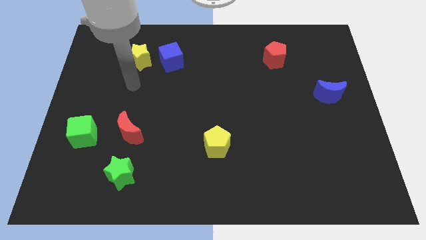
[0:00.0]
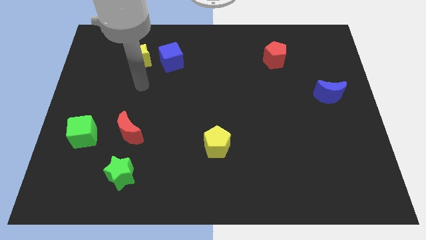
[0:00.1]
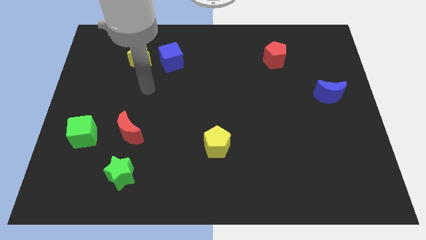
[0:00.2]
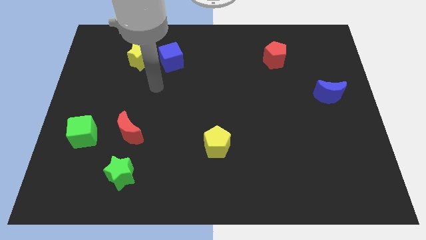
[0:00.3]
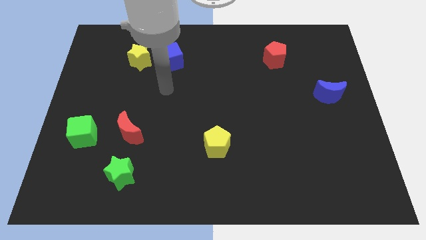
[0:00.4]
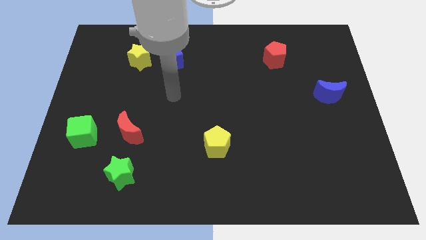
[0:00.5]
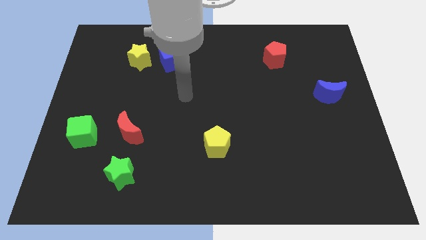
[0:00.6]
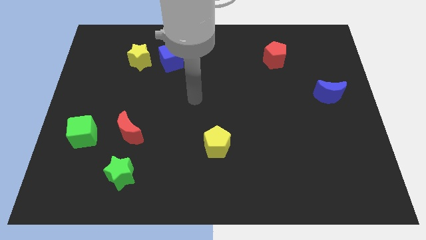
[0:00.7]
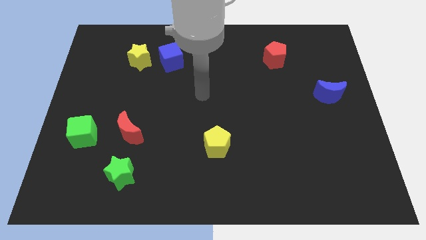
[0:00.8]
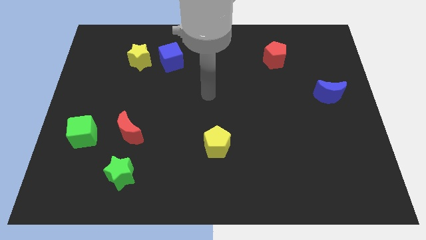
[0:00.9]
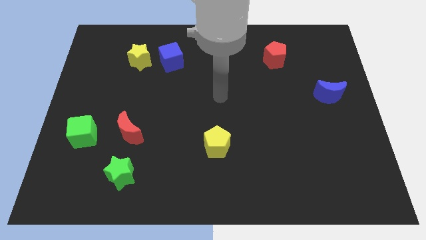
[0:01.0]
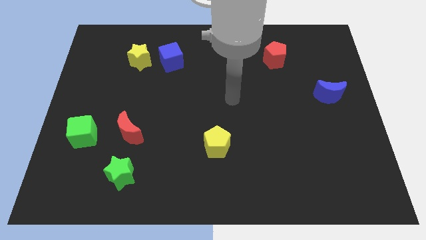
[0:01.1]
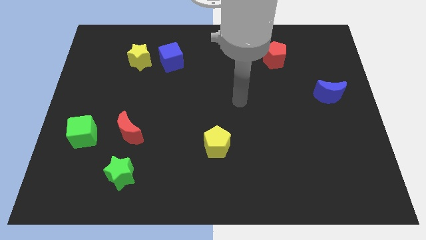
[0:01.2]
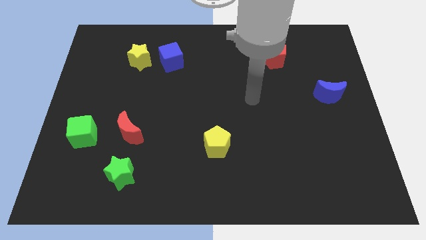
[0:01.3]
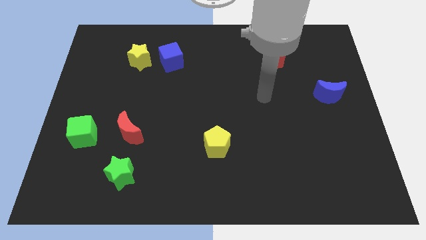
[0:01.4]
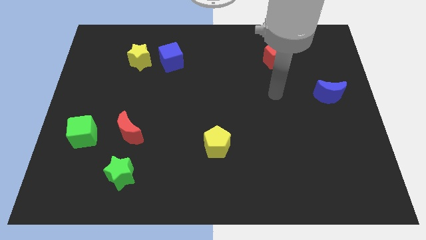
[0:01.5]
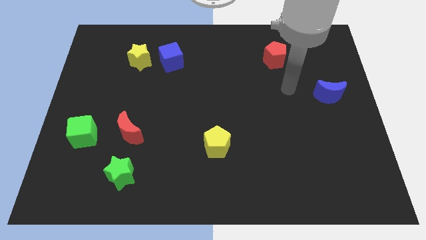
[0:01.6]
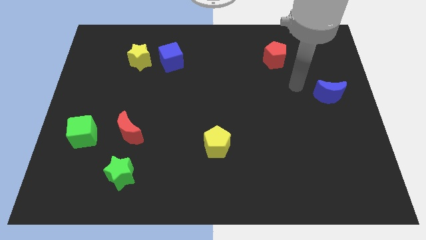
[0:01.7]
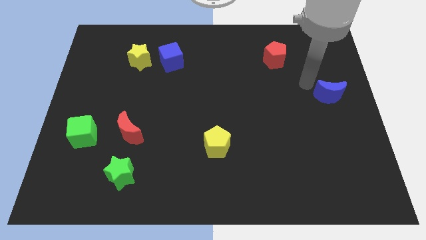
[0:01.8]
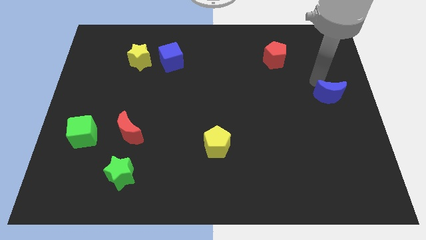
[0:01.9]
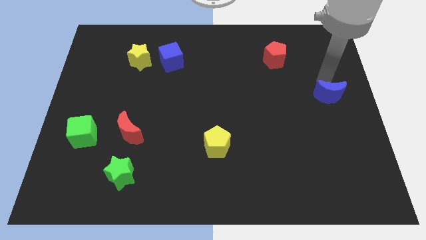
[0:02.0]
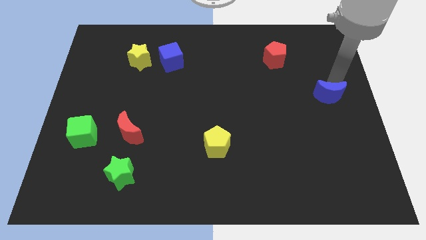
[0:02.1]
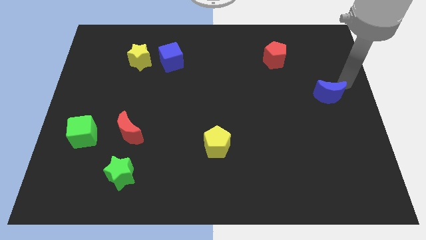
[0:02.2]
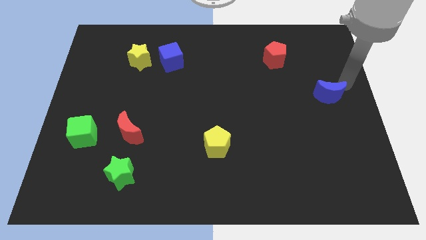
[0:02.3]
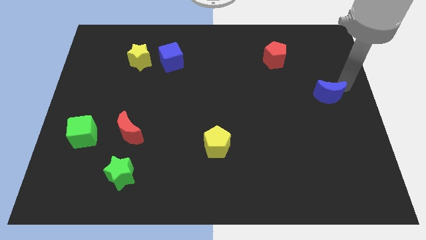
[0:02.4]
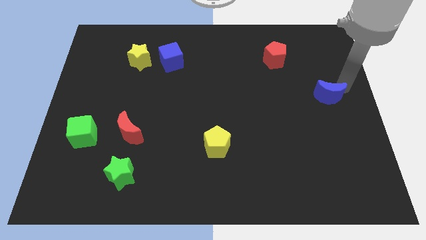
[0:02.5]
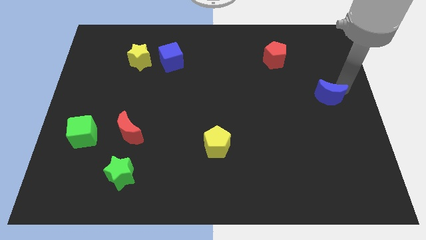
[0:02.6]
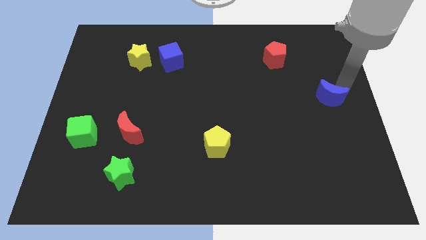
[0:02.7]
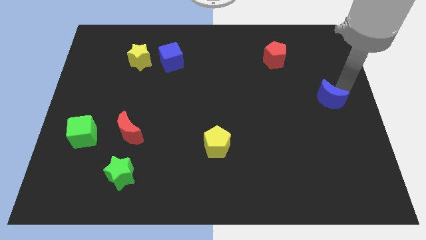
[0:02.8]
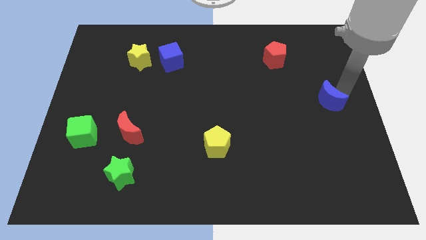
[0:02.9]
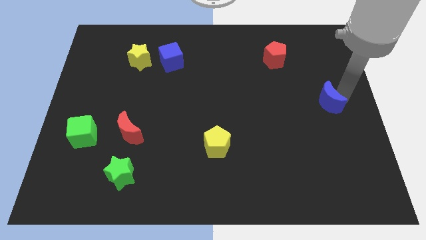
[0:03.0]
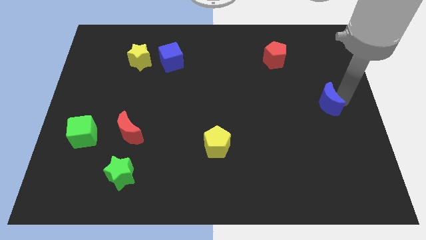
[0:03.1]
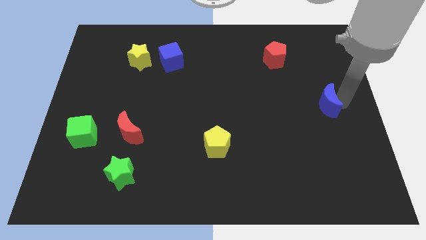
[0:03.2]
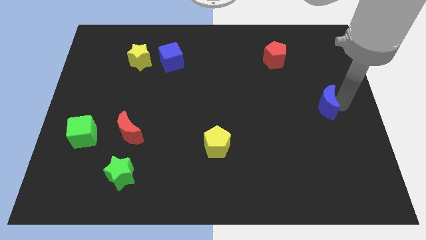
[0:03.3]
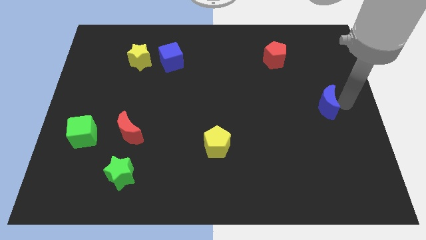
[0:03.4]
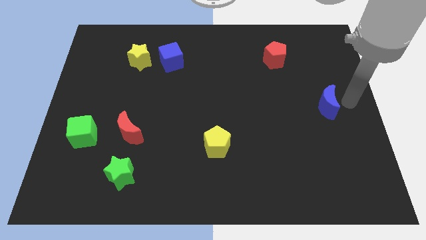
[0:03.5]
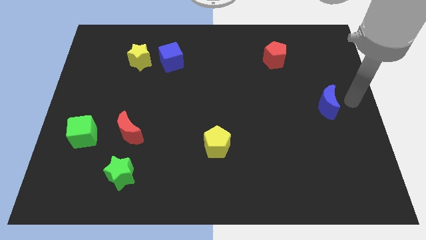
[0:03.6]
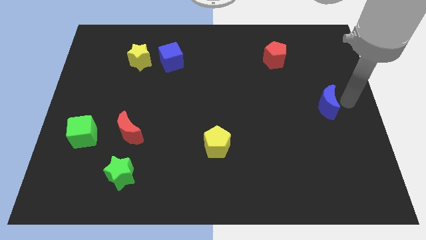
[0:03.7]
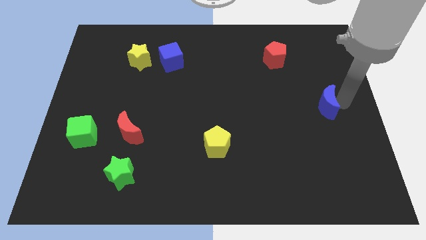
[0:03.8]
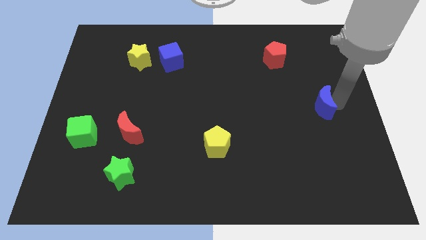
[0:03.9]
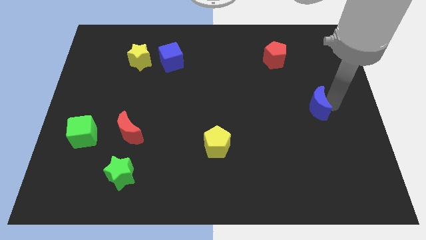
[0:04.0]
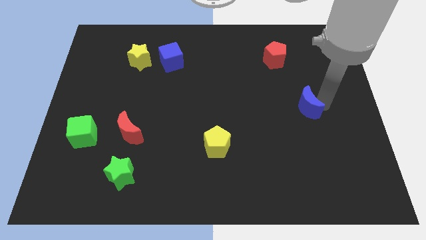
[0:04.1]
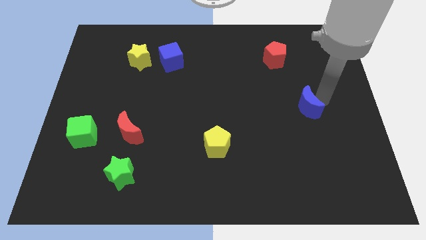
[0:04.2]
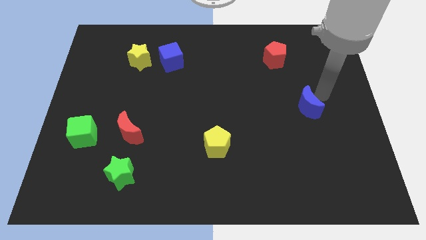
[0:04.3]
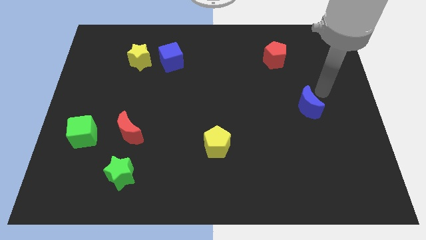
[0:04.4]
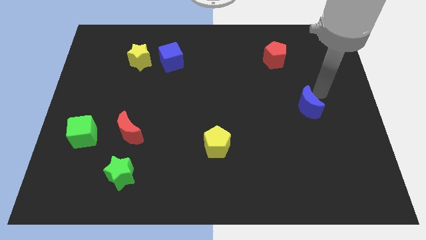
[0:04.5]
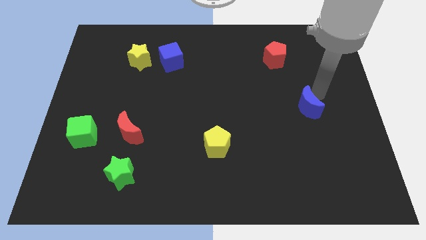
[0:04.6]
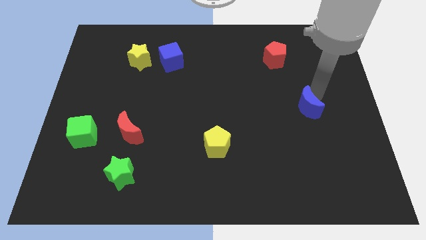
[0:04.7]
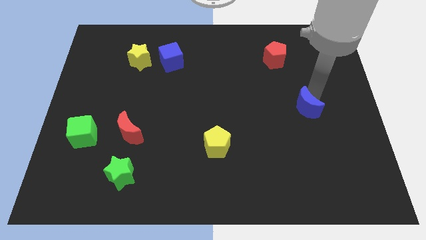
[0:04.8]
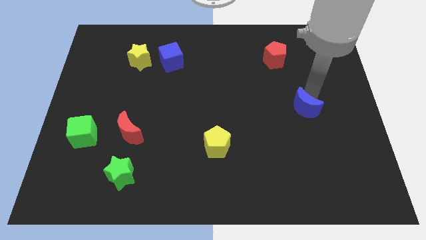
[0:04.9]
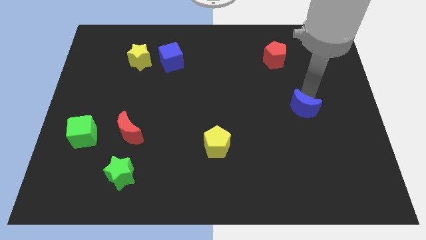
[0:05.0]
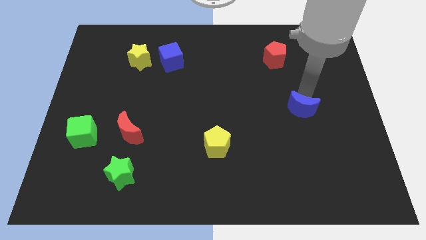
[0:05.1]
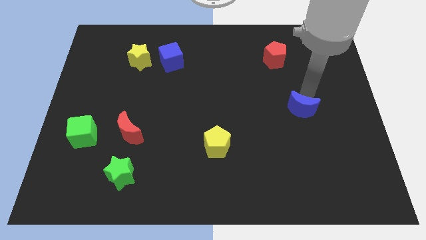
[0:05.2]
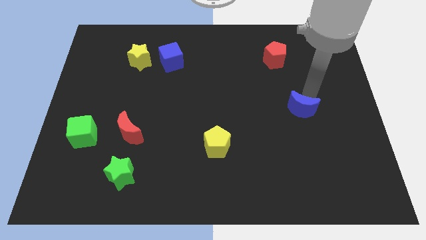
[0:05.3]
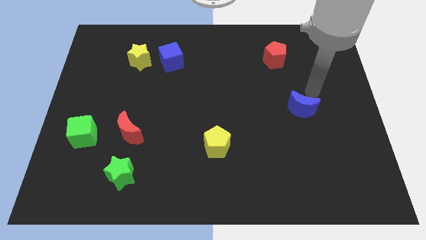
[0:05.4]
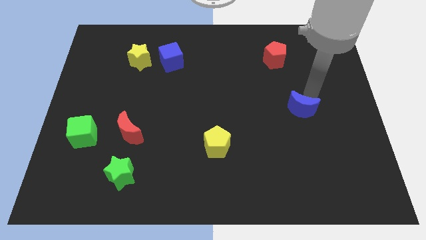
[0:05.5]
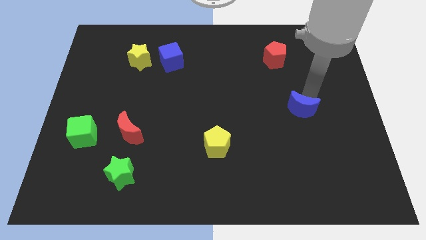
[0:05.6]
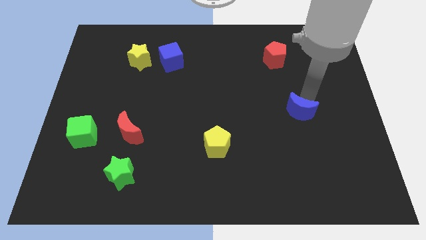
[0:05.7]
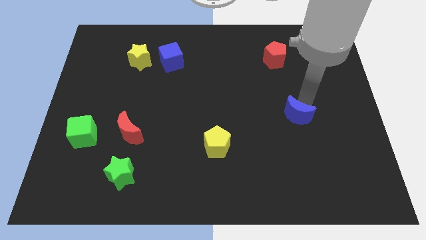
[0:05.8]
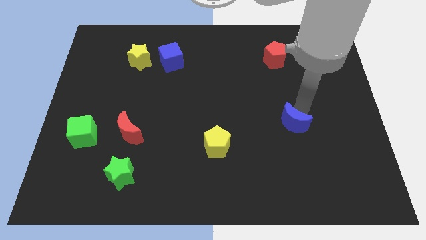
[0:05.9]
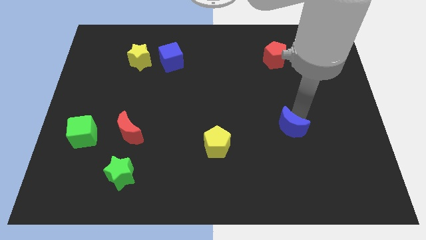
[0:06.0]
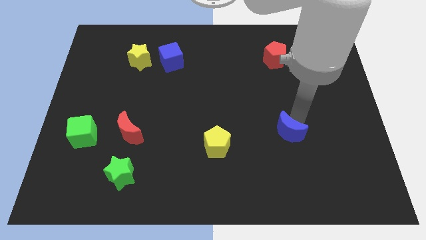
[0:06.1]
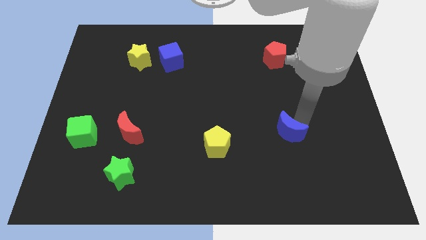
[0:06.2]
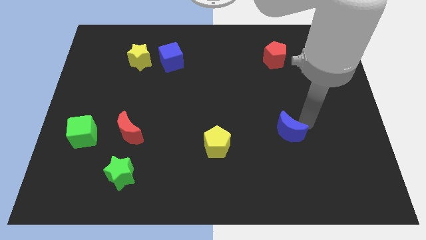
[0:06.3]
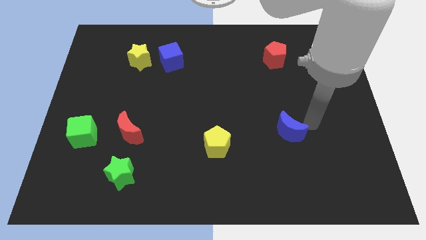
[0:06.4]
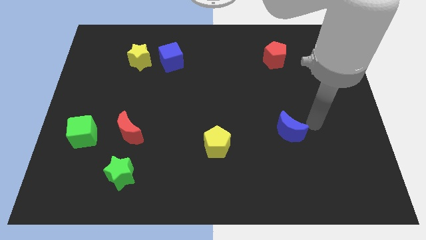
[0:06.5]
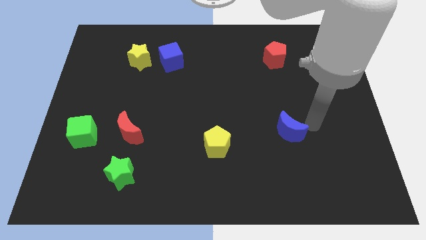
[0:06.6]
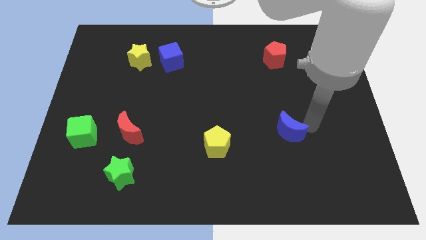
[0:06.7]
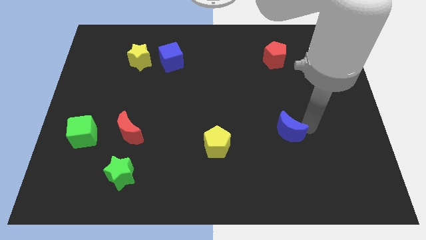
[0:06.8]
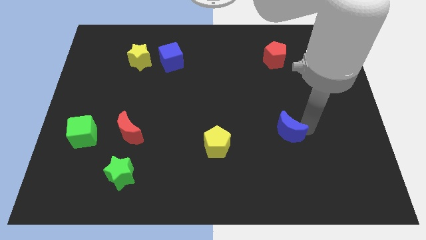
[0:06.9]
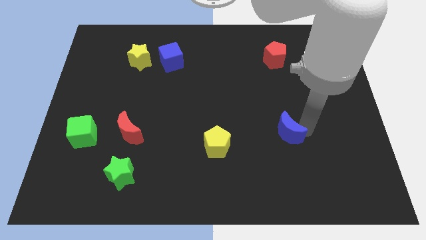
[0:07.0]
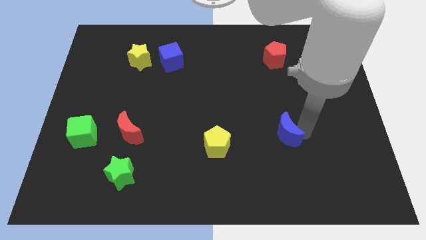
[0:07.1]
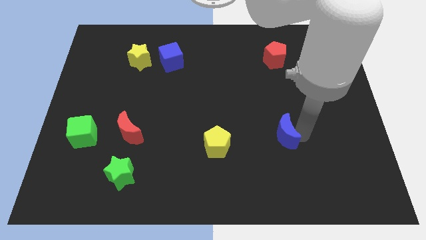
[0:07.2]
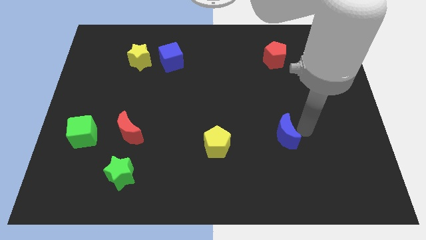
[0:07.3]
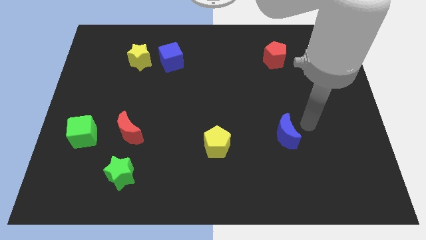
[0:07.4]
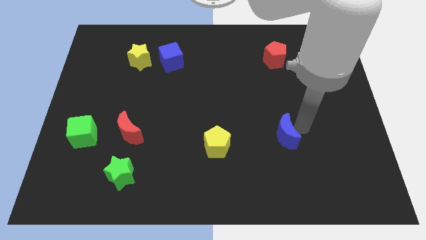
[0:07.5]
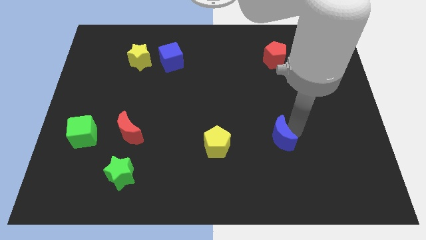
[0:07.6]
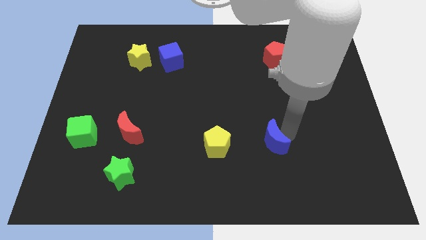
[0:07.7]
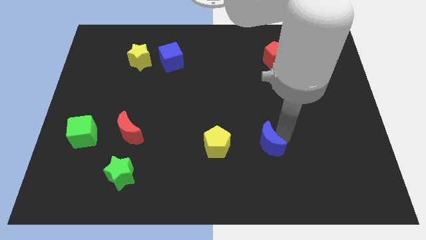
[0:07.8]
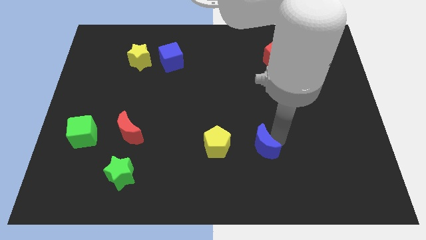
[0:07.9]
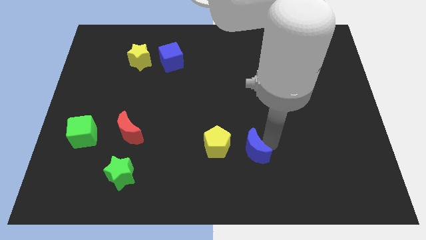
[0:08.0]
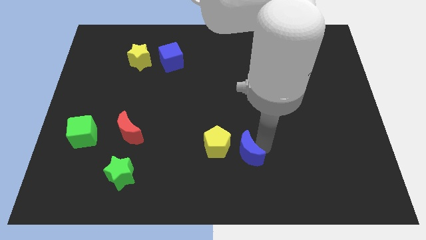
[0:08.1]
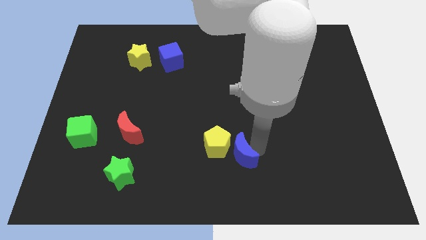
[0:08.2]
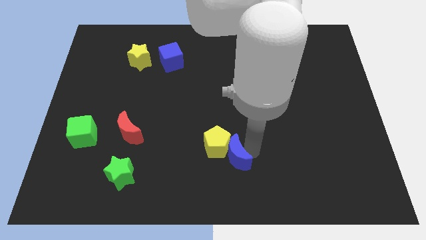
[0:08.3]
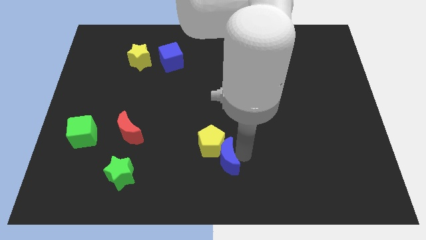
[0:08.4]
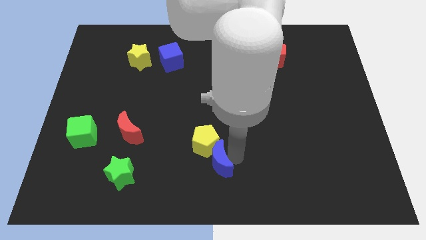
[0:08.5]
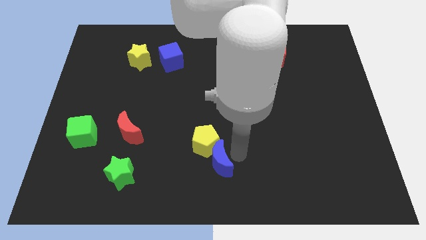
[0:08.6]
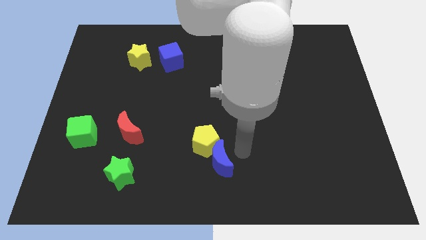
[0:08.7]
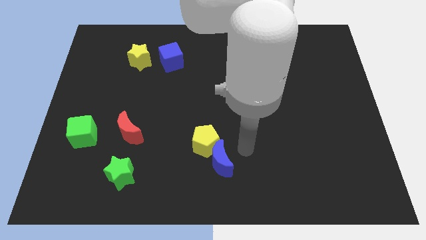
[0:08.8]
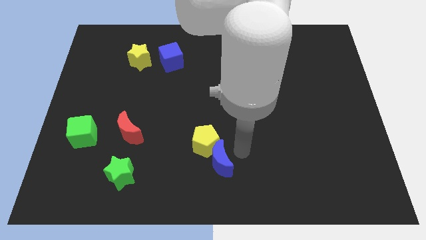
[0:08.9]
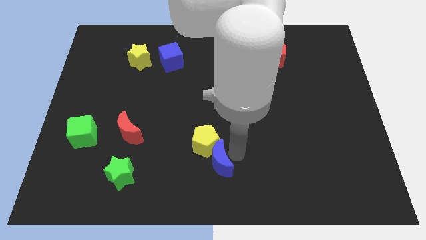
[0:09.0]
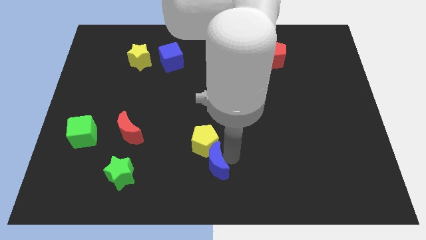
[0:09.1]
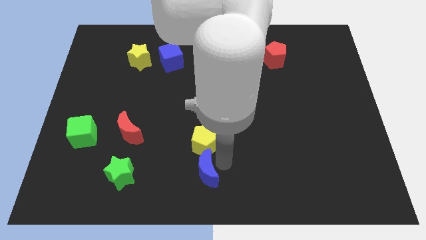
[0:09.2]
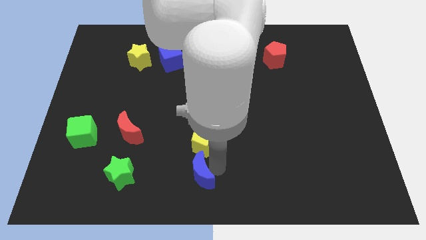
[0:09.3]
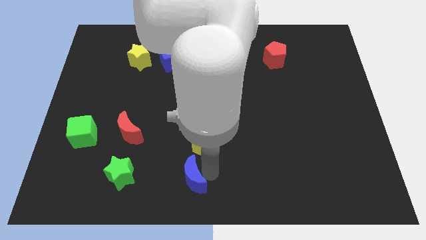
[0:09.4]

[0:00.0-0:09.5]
move the blue moon right of the green star
